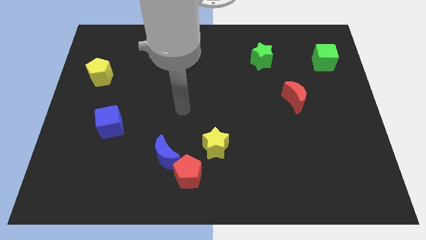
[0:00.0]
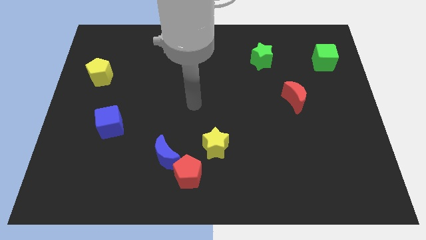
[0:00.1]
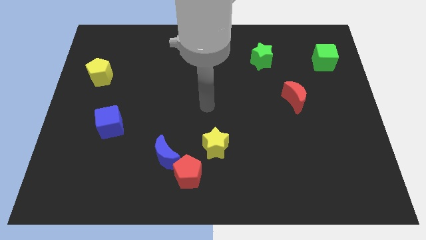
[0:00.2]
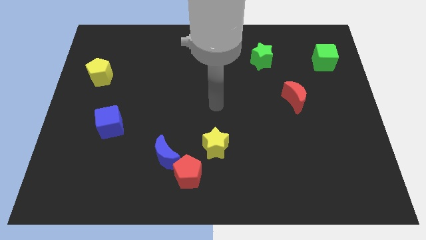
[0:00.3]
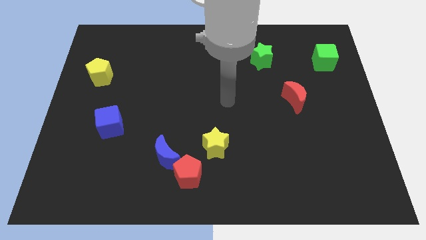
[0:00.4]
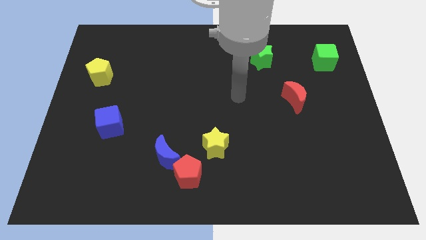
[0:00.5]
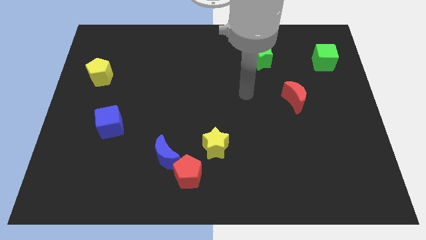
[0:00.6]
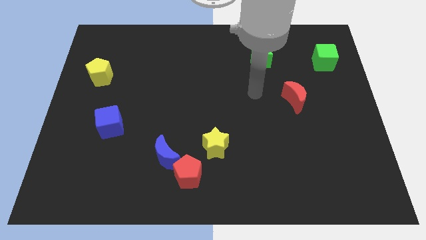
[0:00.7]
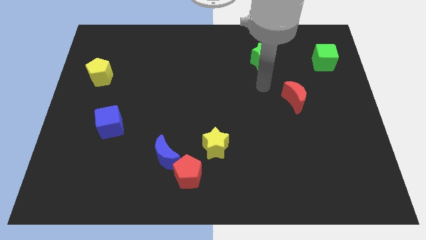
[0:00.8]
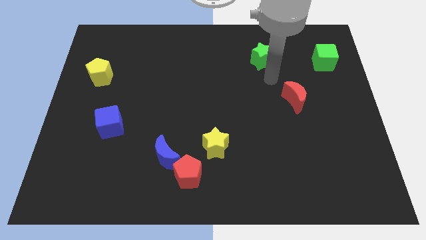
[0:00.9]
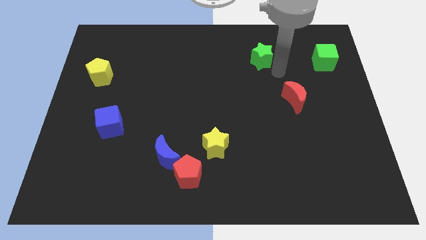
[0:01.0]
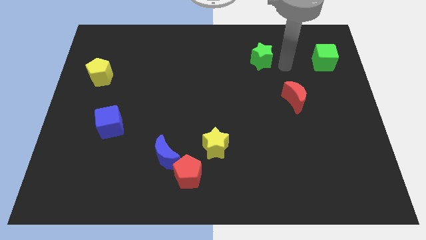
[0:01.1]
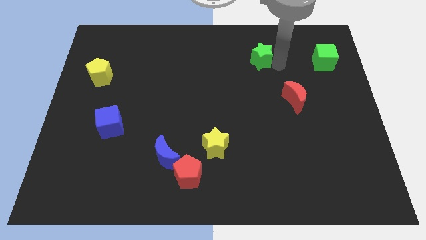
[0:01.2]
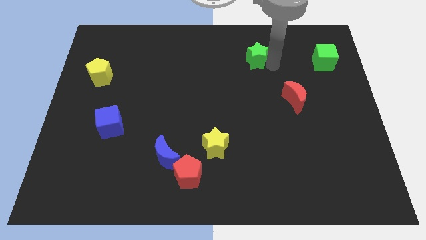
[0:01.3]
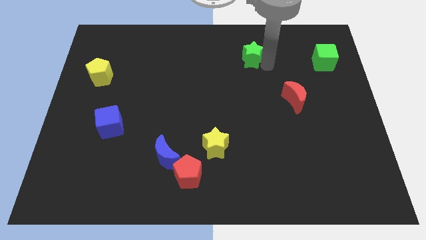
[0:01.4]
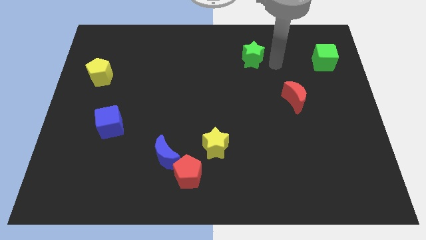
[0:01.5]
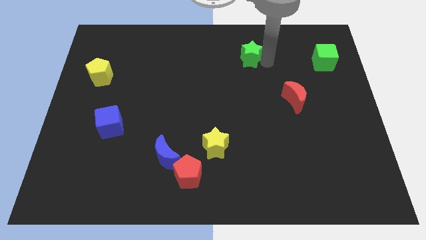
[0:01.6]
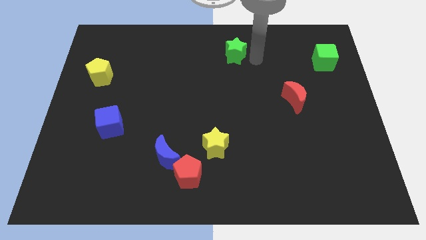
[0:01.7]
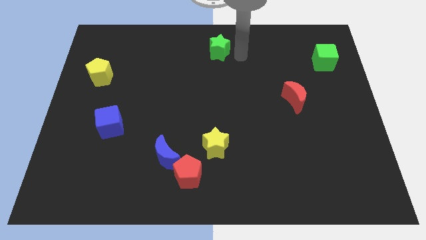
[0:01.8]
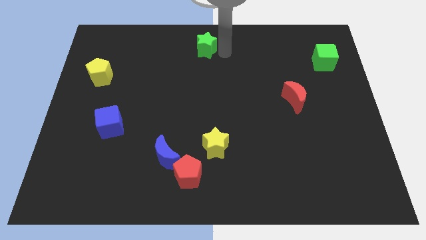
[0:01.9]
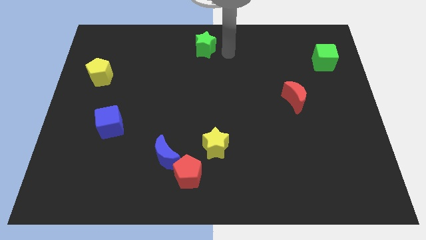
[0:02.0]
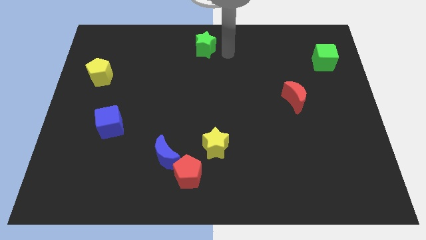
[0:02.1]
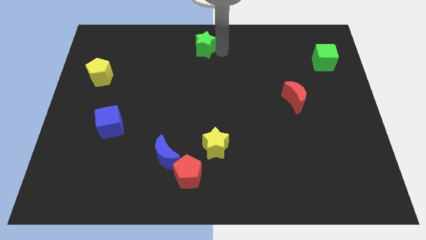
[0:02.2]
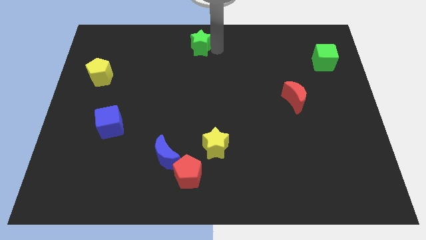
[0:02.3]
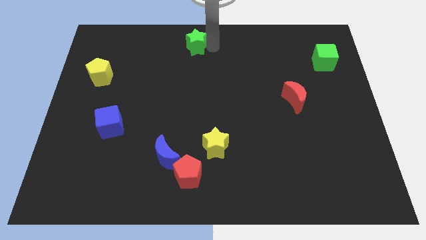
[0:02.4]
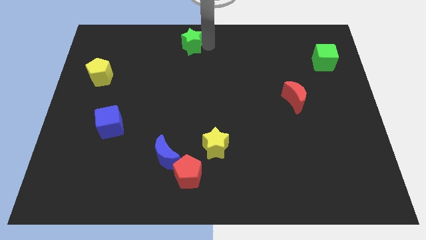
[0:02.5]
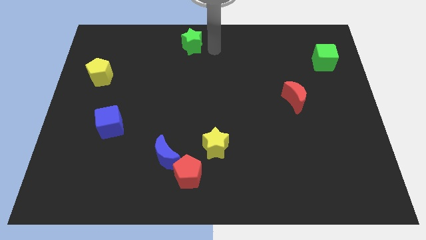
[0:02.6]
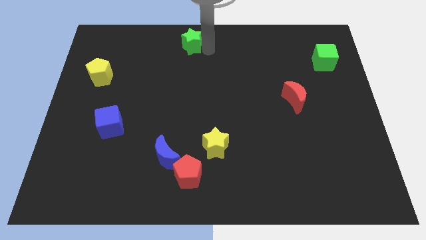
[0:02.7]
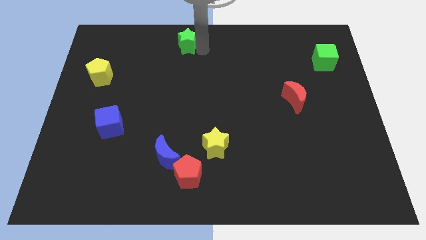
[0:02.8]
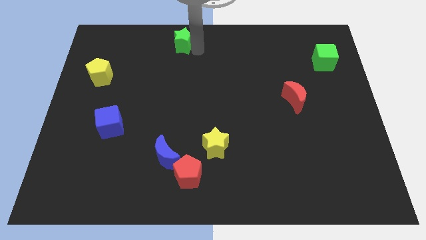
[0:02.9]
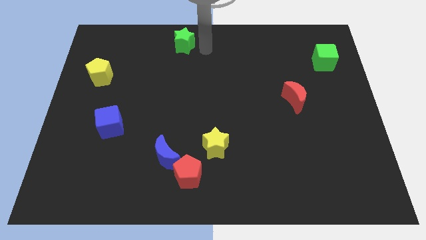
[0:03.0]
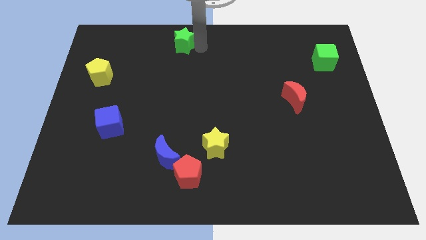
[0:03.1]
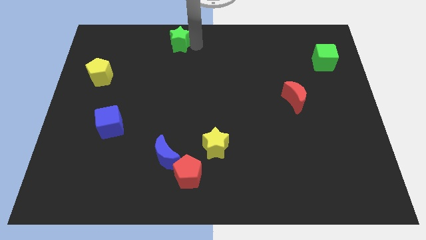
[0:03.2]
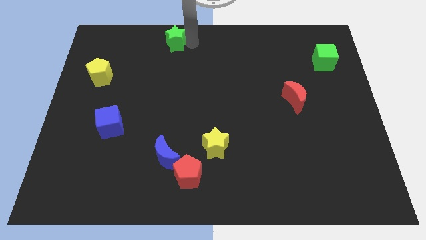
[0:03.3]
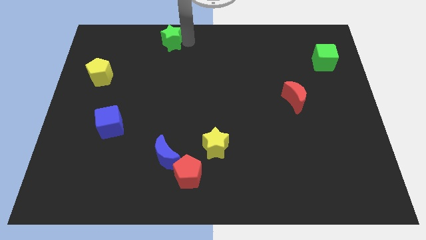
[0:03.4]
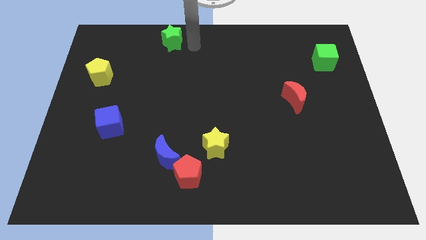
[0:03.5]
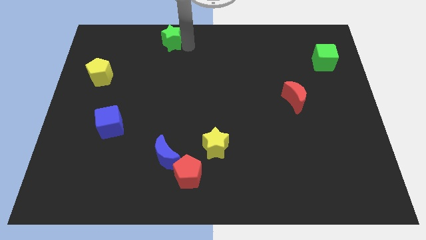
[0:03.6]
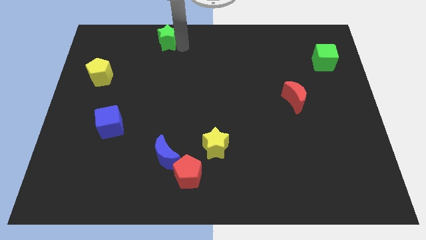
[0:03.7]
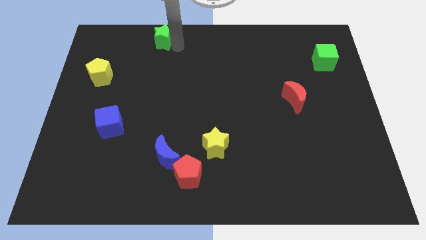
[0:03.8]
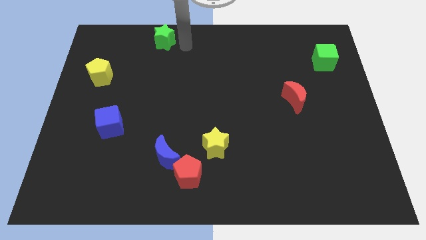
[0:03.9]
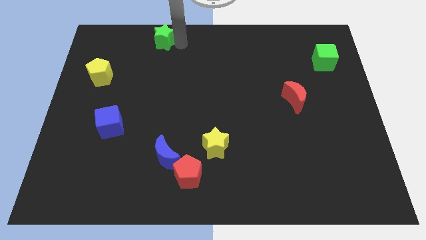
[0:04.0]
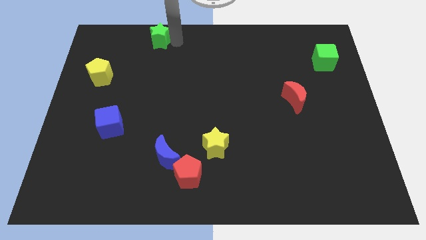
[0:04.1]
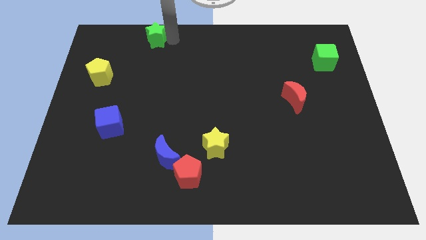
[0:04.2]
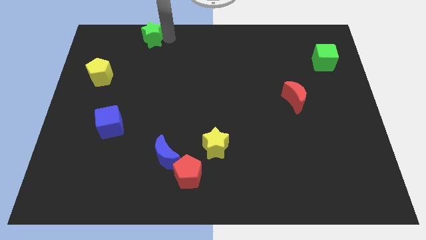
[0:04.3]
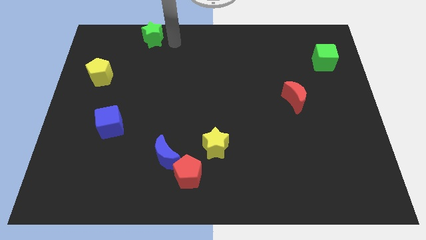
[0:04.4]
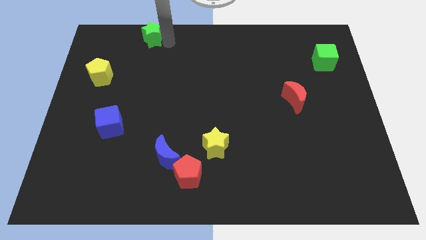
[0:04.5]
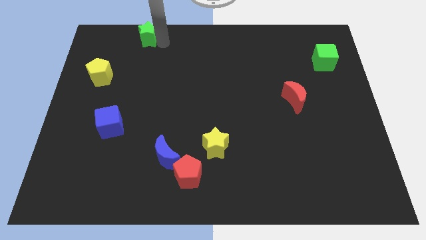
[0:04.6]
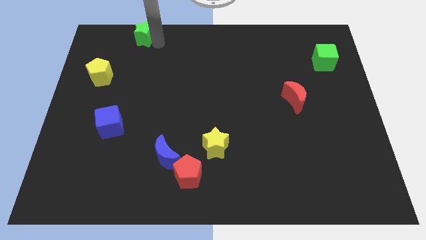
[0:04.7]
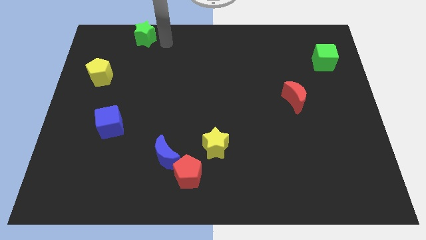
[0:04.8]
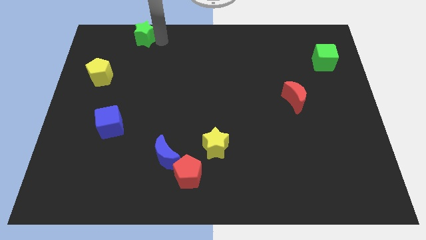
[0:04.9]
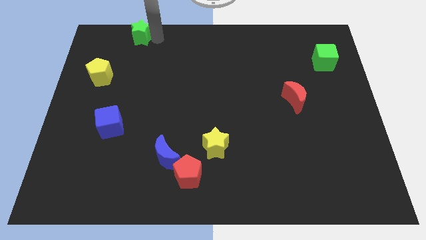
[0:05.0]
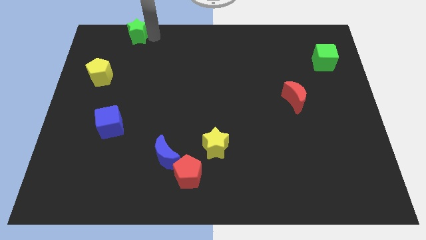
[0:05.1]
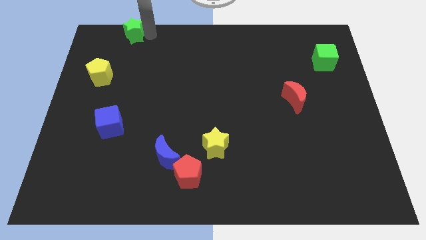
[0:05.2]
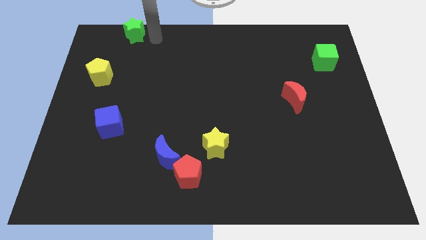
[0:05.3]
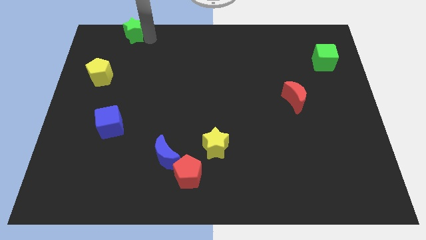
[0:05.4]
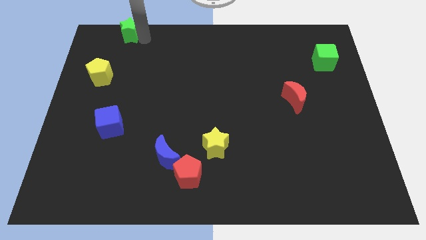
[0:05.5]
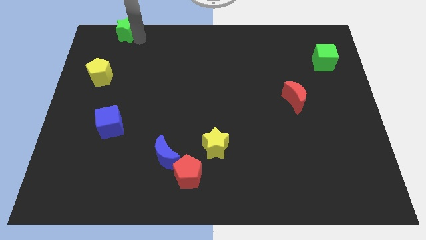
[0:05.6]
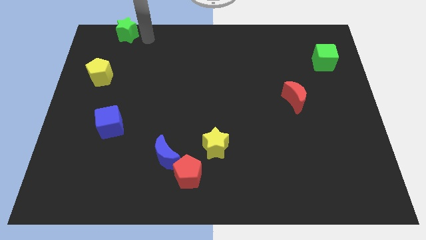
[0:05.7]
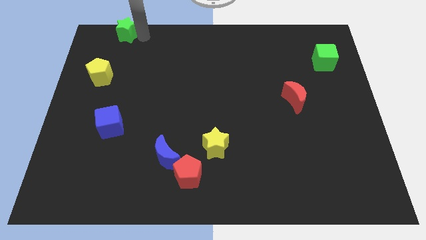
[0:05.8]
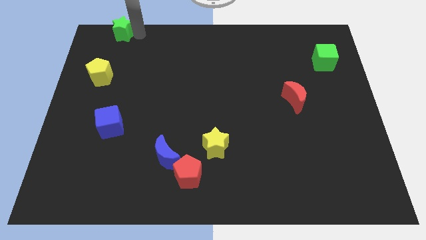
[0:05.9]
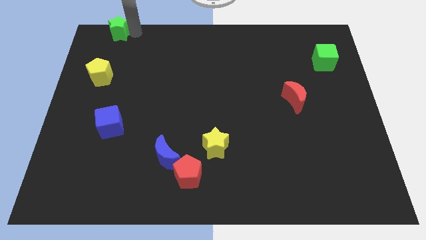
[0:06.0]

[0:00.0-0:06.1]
slide the green star to the upper left corner

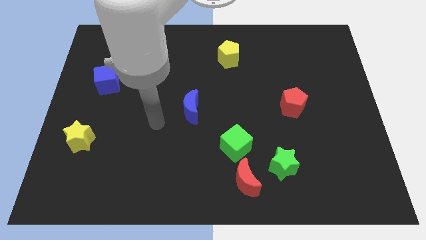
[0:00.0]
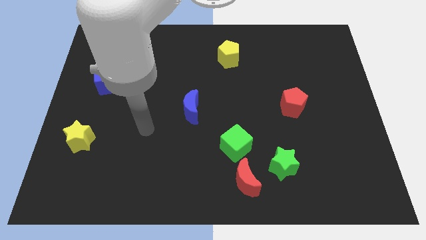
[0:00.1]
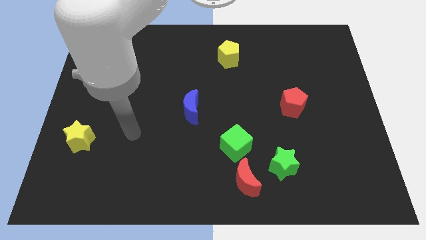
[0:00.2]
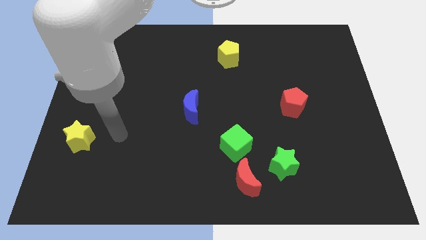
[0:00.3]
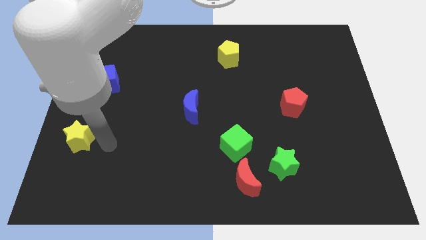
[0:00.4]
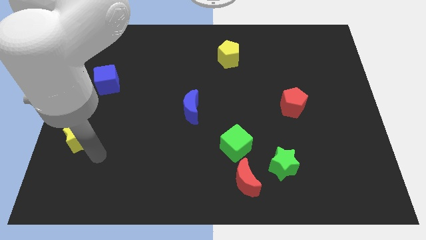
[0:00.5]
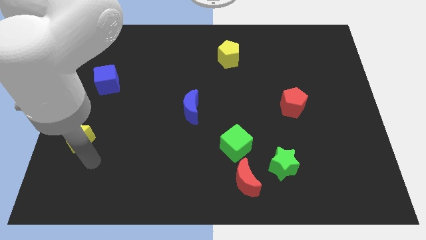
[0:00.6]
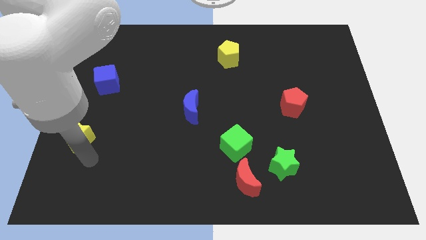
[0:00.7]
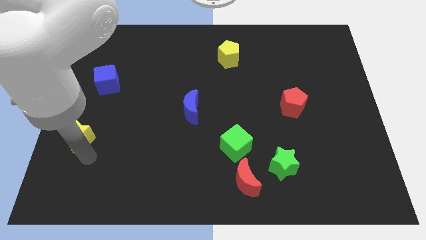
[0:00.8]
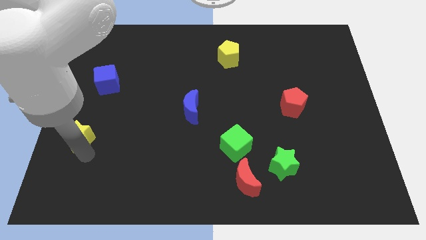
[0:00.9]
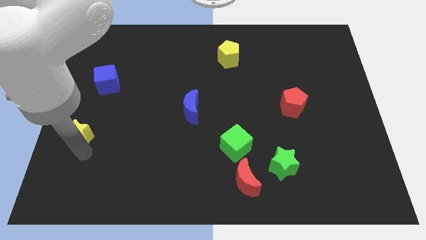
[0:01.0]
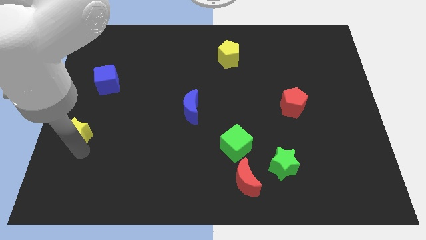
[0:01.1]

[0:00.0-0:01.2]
move the yellow star to the center left

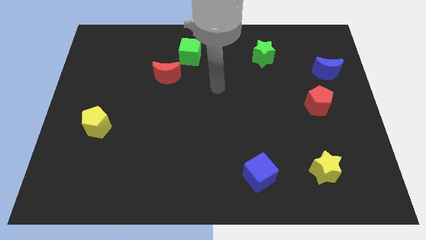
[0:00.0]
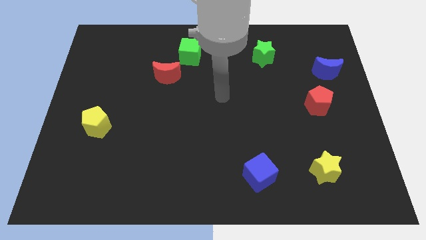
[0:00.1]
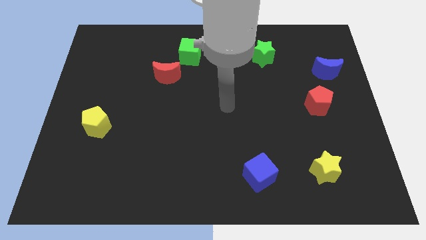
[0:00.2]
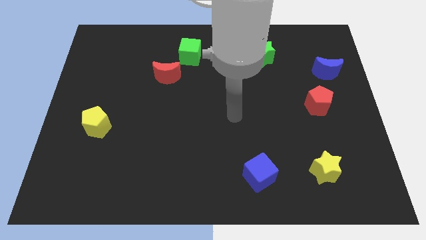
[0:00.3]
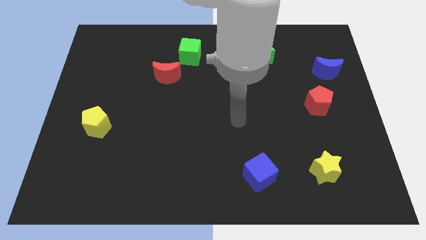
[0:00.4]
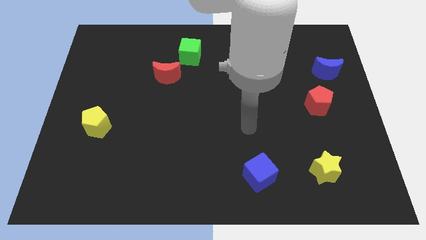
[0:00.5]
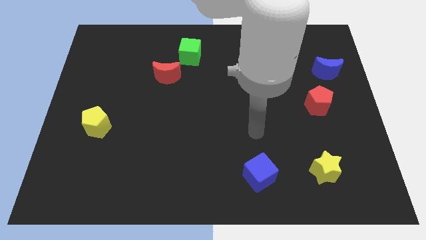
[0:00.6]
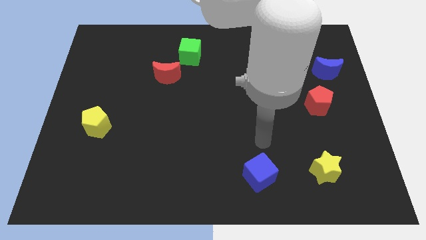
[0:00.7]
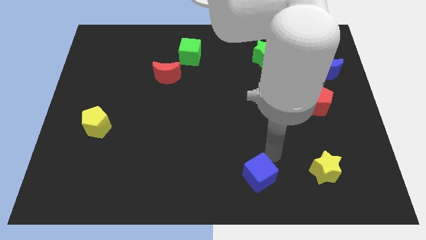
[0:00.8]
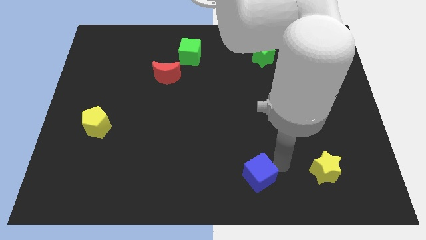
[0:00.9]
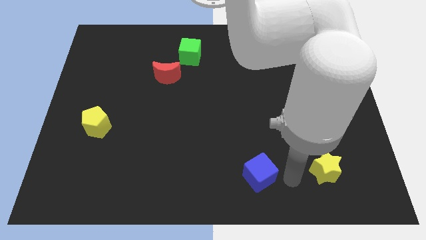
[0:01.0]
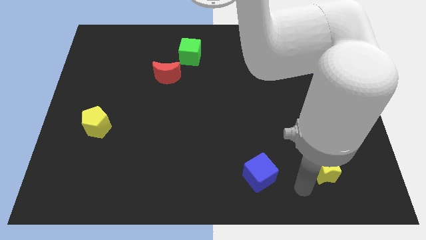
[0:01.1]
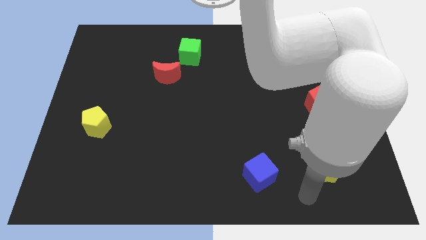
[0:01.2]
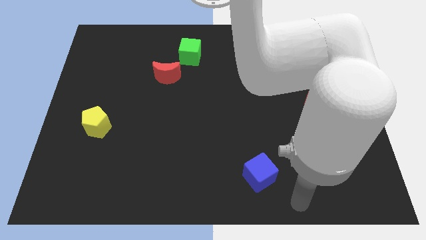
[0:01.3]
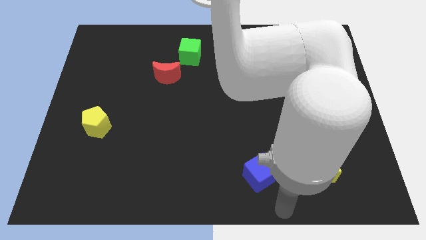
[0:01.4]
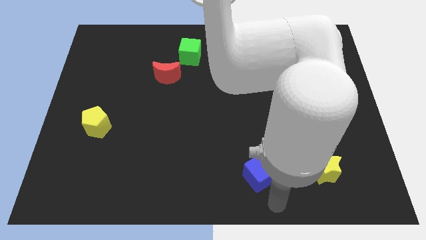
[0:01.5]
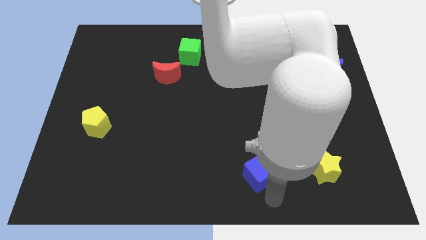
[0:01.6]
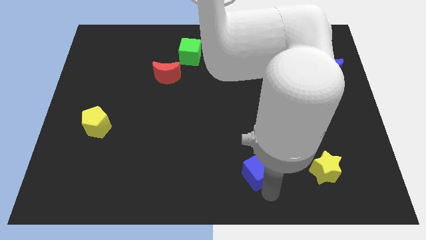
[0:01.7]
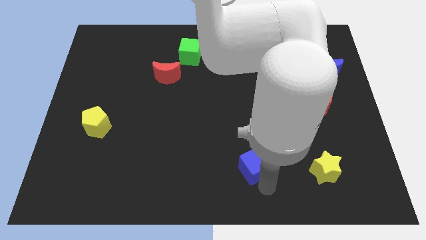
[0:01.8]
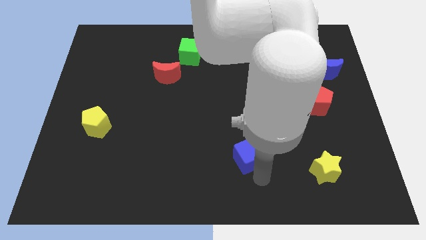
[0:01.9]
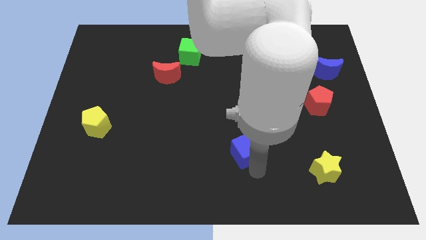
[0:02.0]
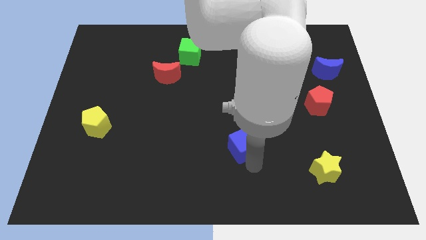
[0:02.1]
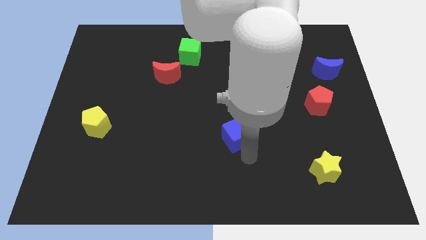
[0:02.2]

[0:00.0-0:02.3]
move the blue cube to the middle of the board
